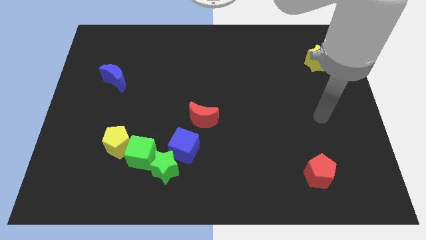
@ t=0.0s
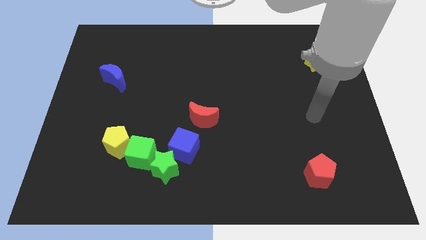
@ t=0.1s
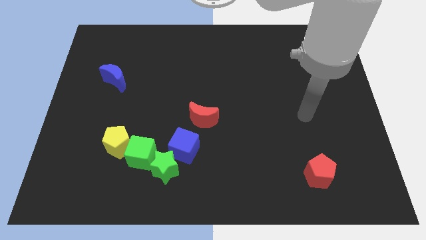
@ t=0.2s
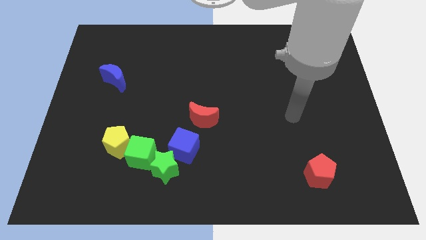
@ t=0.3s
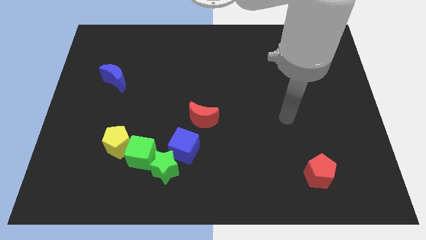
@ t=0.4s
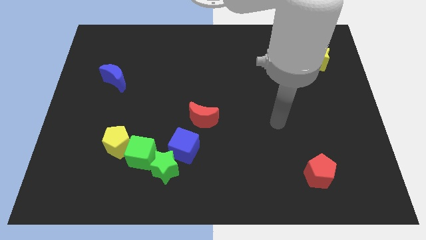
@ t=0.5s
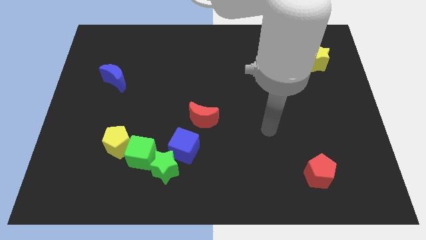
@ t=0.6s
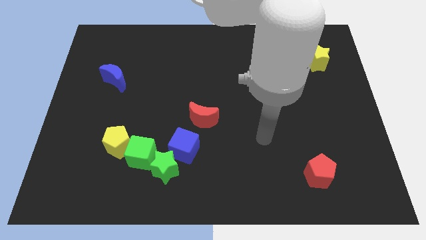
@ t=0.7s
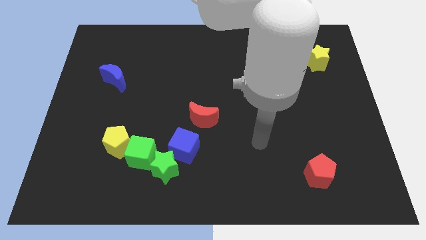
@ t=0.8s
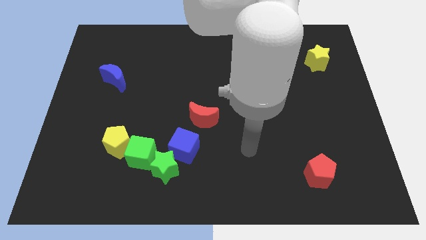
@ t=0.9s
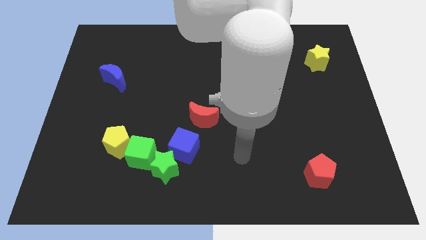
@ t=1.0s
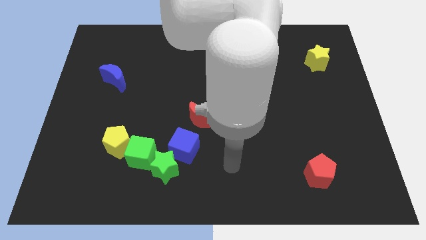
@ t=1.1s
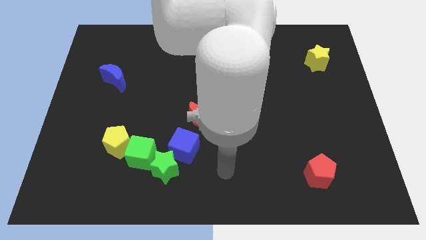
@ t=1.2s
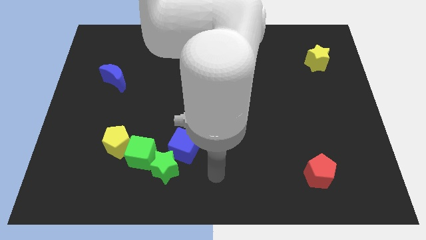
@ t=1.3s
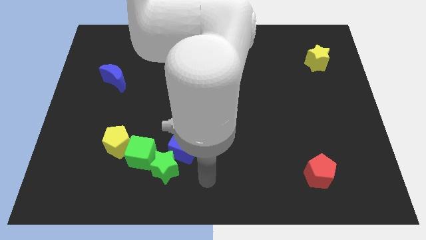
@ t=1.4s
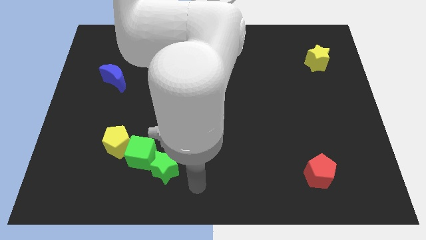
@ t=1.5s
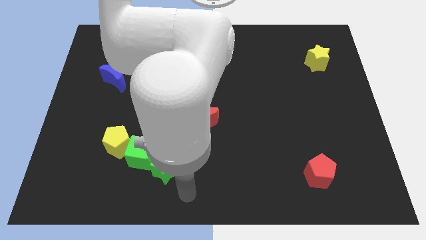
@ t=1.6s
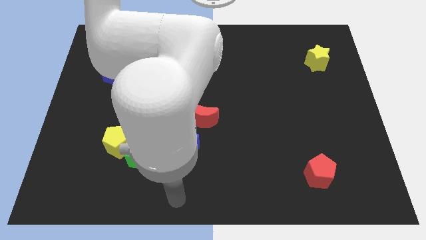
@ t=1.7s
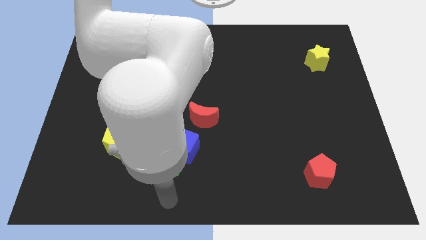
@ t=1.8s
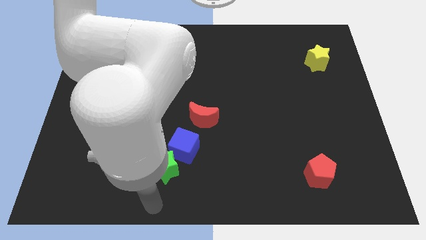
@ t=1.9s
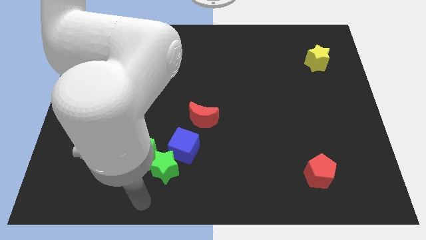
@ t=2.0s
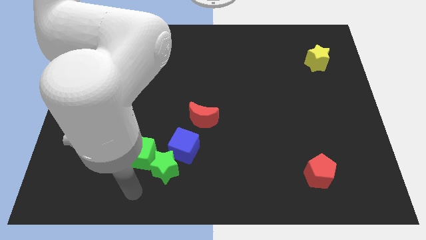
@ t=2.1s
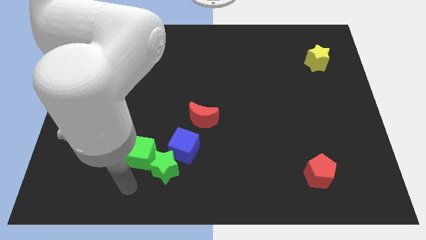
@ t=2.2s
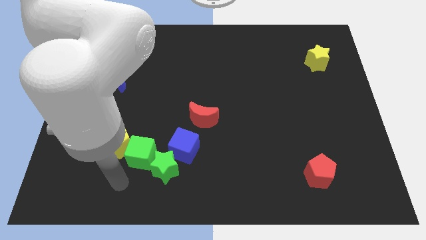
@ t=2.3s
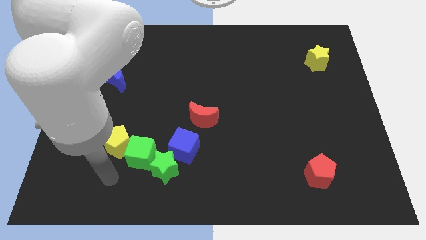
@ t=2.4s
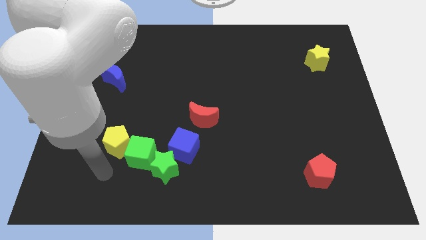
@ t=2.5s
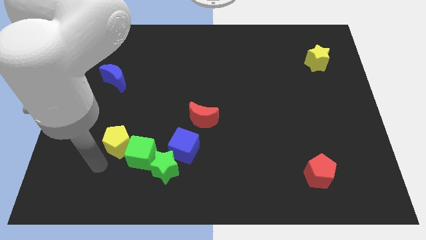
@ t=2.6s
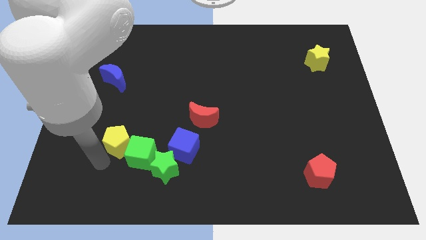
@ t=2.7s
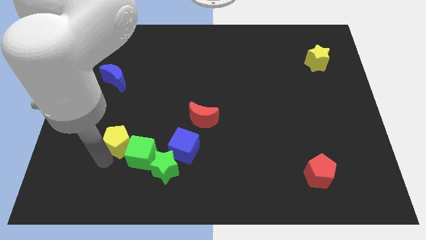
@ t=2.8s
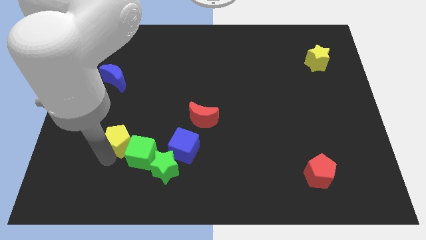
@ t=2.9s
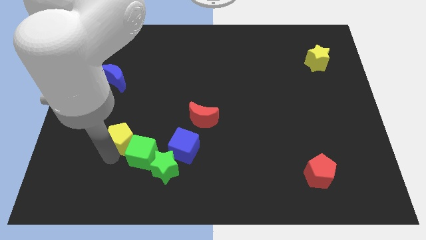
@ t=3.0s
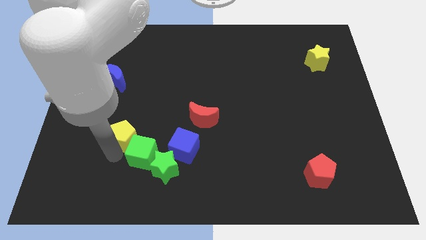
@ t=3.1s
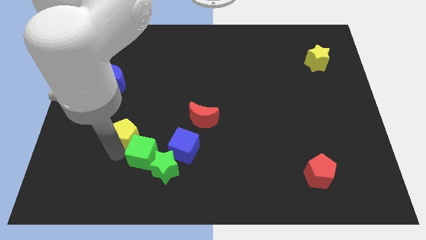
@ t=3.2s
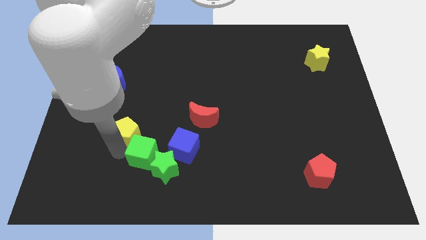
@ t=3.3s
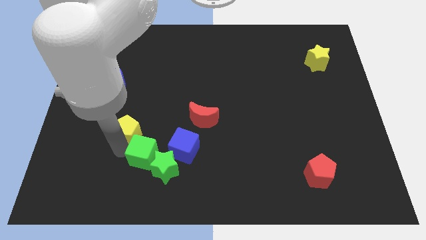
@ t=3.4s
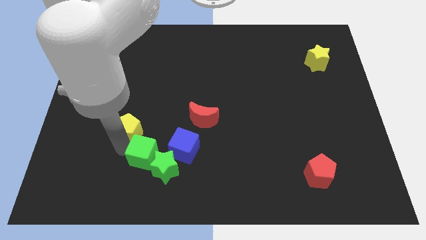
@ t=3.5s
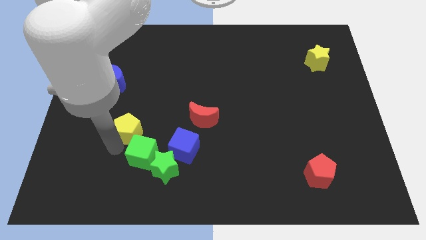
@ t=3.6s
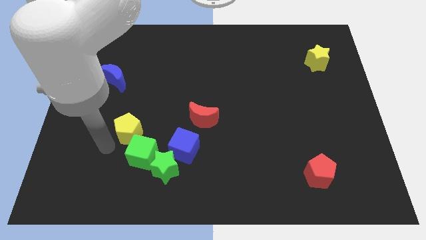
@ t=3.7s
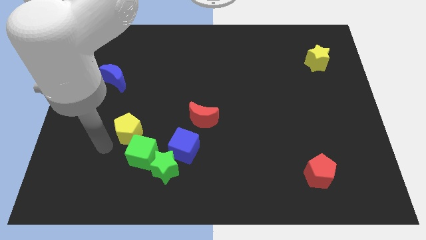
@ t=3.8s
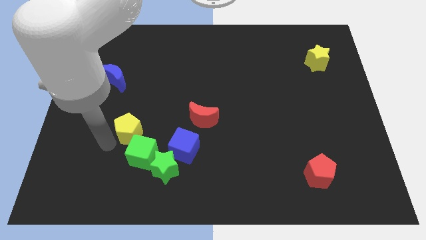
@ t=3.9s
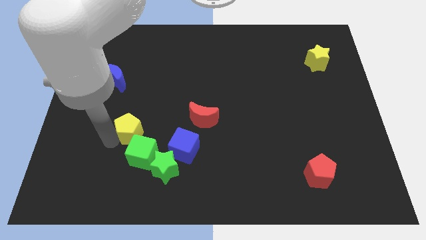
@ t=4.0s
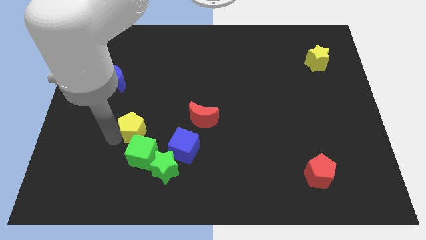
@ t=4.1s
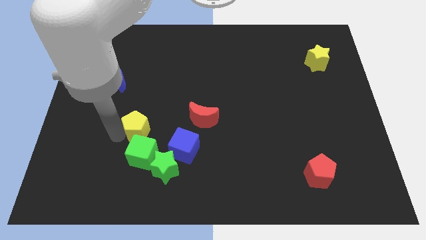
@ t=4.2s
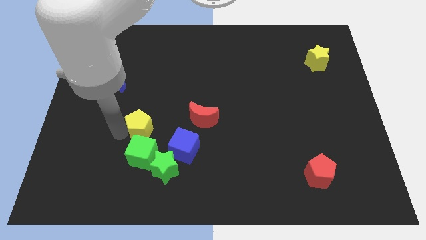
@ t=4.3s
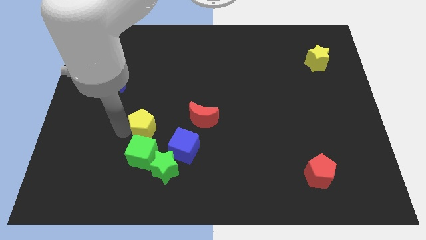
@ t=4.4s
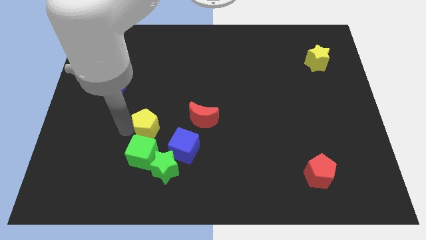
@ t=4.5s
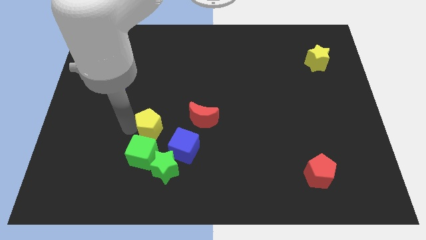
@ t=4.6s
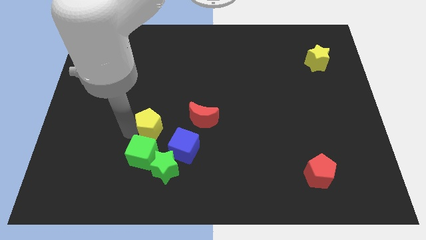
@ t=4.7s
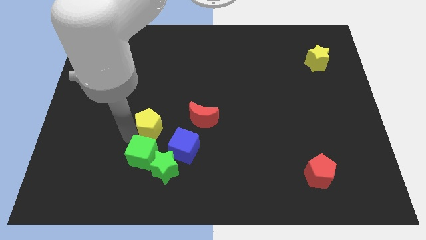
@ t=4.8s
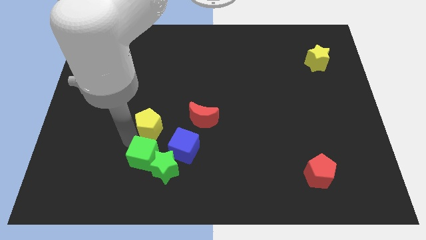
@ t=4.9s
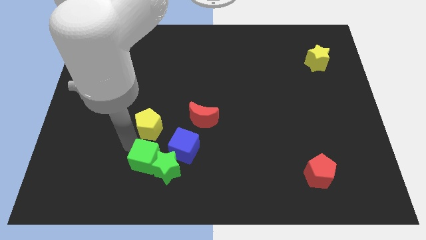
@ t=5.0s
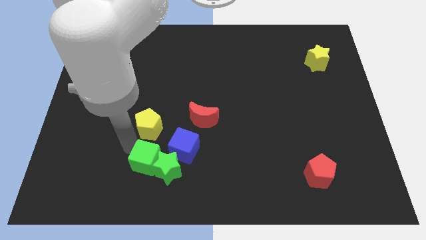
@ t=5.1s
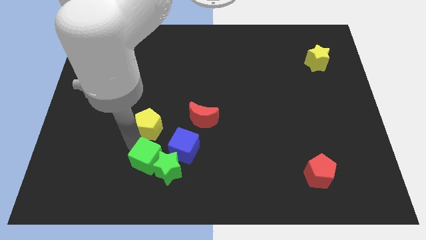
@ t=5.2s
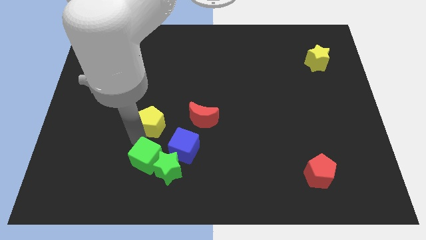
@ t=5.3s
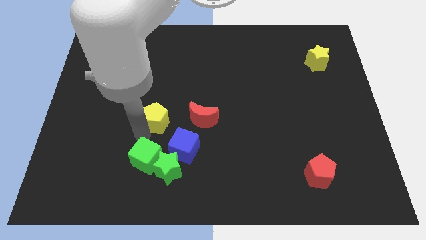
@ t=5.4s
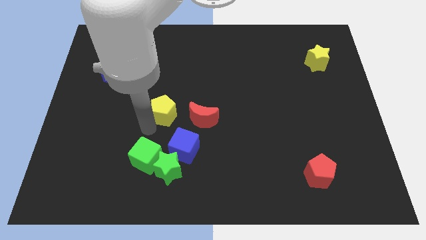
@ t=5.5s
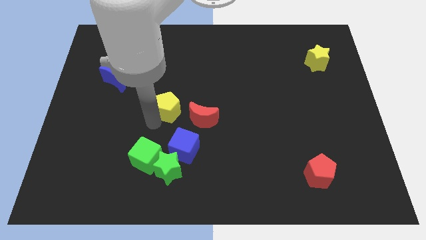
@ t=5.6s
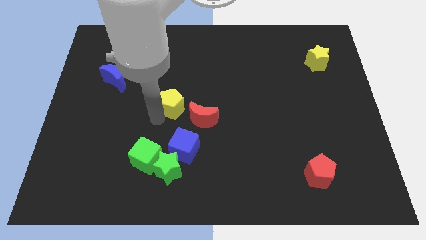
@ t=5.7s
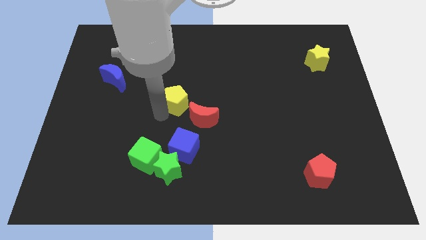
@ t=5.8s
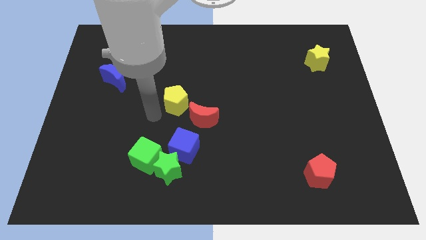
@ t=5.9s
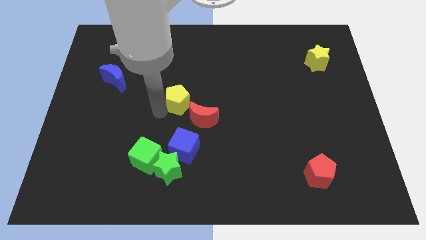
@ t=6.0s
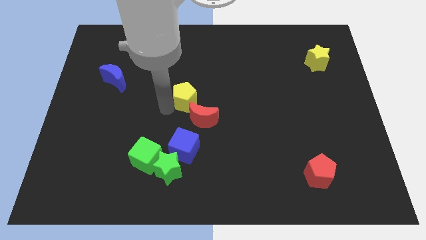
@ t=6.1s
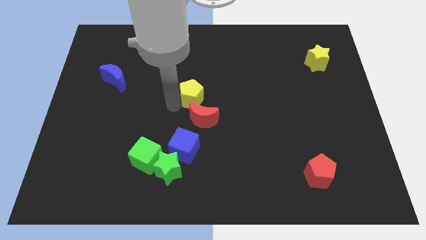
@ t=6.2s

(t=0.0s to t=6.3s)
slide the yellow pentagon upwards and then to the right

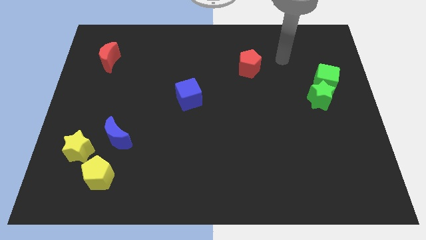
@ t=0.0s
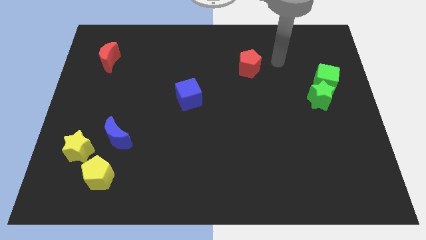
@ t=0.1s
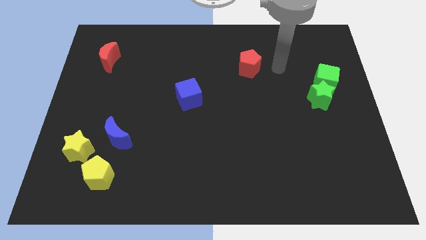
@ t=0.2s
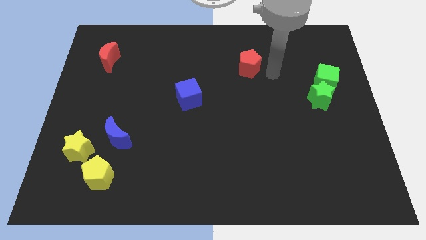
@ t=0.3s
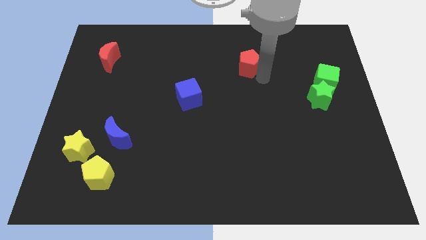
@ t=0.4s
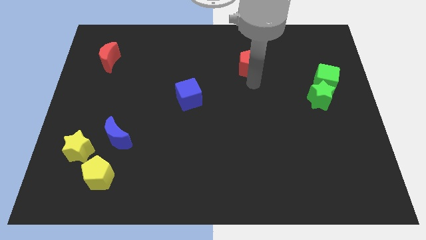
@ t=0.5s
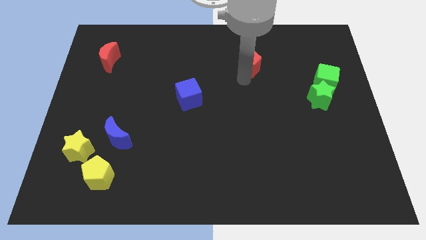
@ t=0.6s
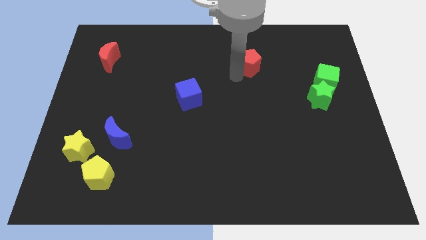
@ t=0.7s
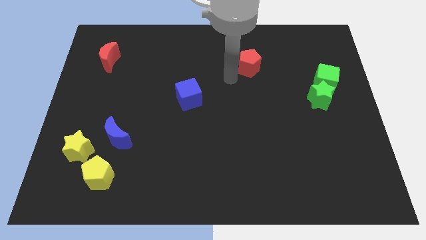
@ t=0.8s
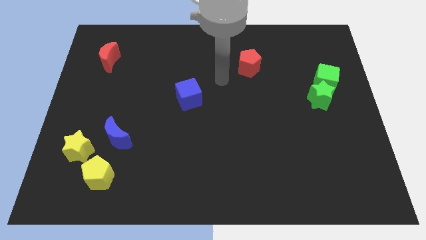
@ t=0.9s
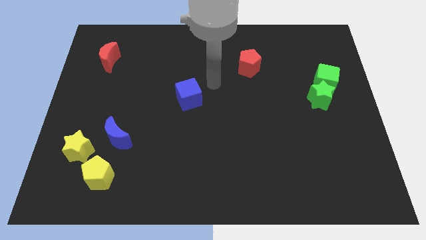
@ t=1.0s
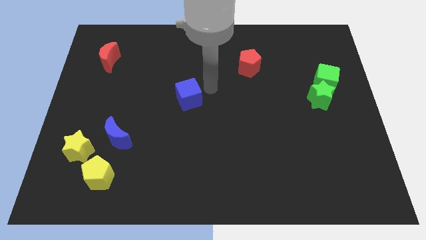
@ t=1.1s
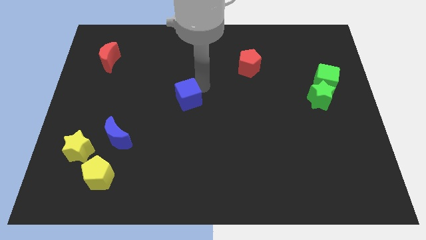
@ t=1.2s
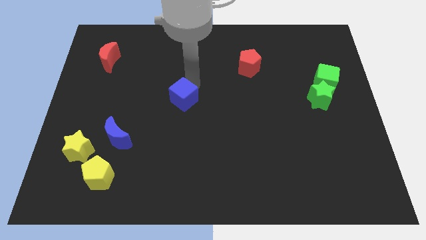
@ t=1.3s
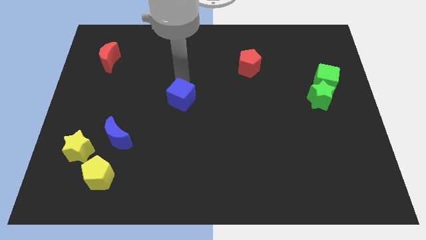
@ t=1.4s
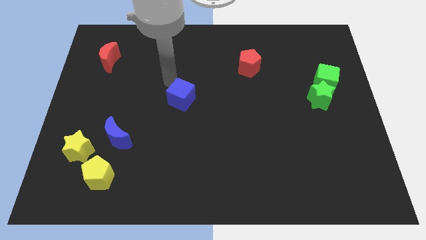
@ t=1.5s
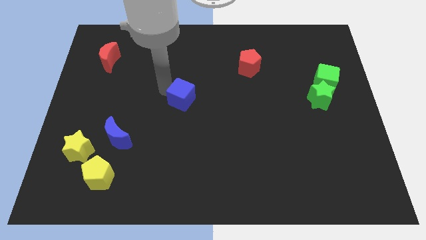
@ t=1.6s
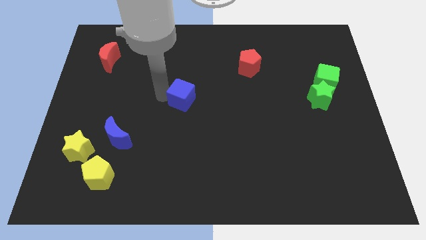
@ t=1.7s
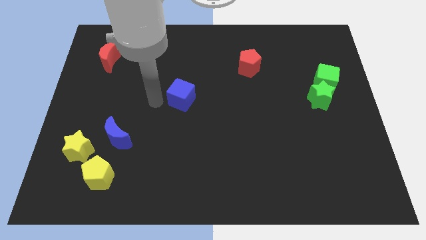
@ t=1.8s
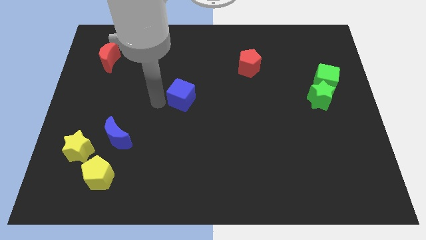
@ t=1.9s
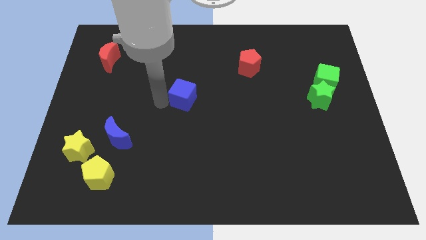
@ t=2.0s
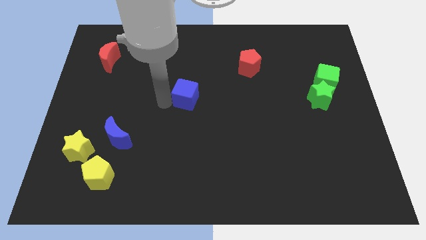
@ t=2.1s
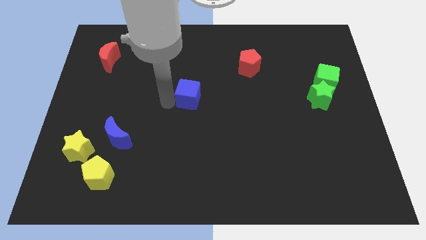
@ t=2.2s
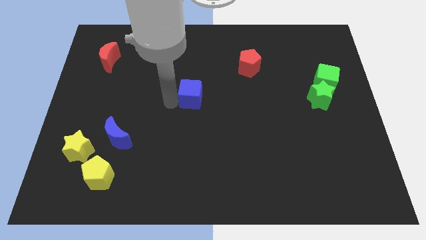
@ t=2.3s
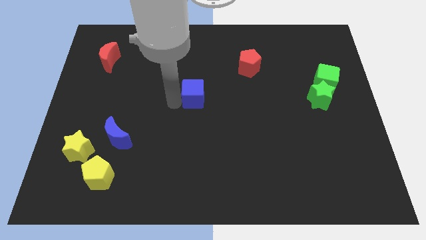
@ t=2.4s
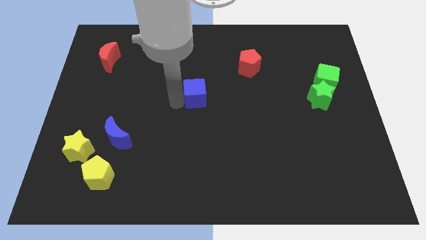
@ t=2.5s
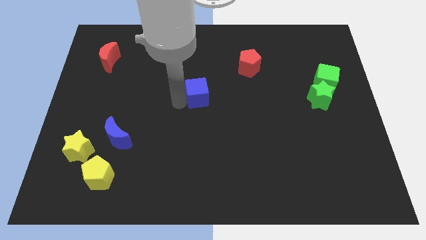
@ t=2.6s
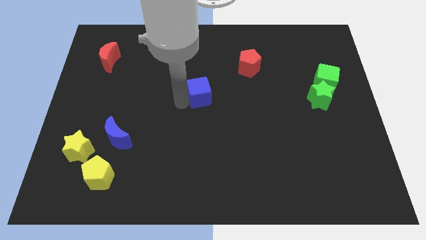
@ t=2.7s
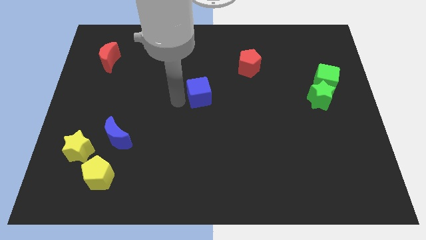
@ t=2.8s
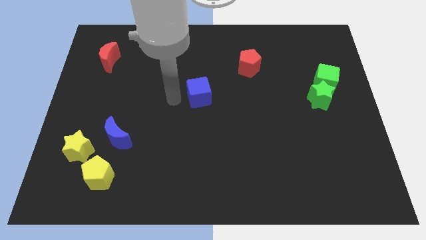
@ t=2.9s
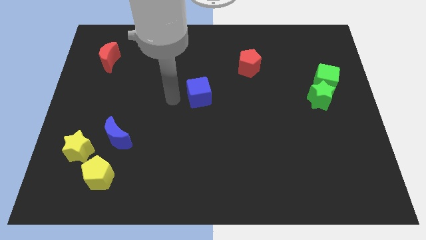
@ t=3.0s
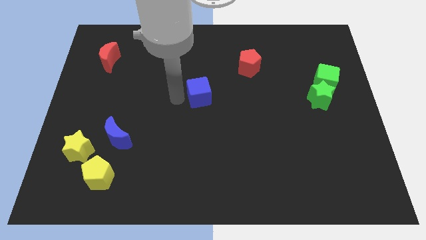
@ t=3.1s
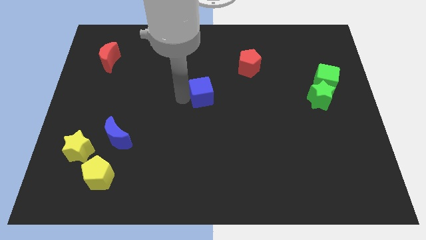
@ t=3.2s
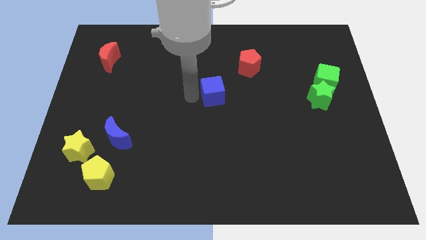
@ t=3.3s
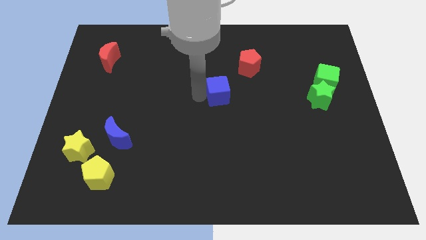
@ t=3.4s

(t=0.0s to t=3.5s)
slide the blue cube to the right a little bit
